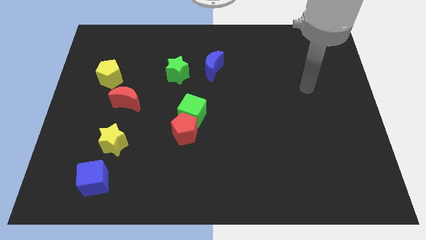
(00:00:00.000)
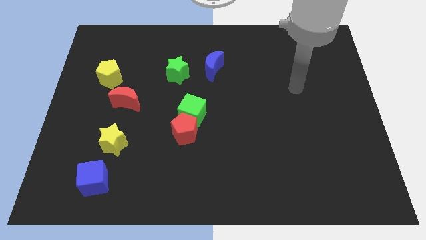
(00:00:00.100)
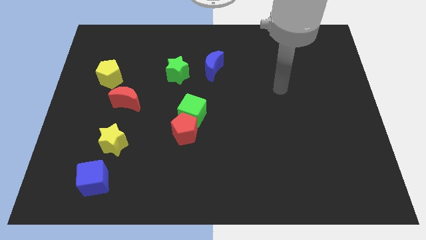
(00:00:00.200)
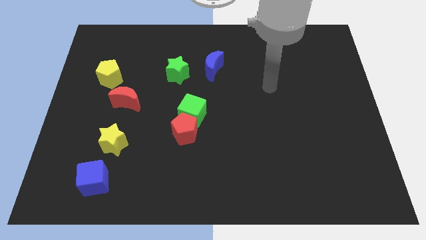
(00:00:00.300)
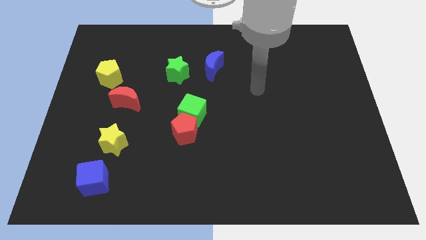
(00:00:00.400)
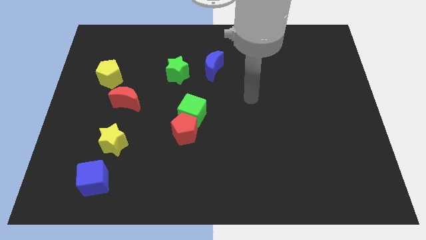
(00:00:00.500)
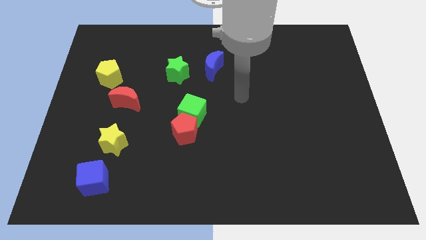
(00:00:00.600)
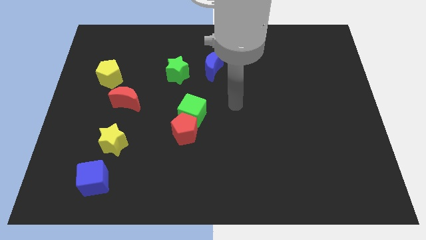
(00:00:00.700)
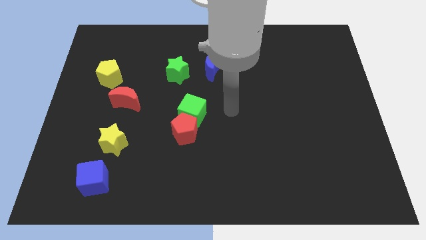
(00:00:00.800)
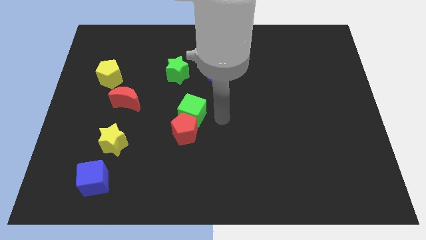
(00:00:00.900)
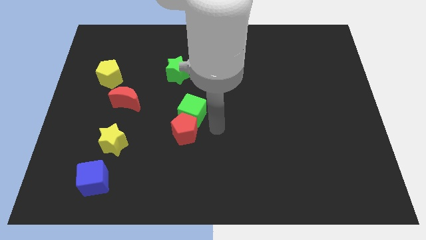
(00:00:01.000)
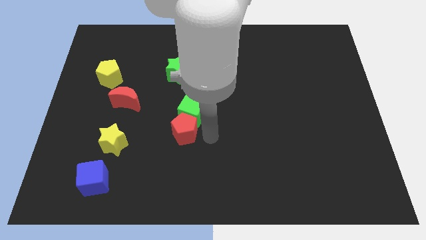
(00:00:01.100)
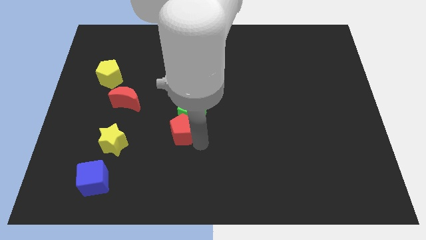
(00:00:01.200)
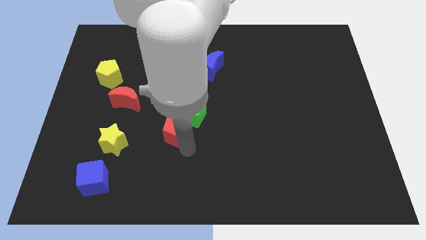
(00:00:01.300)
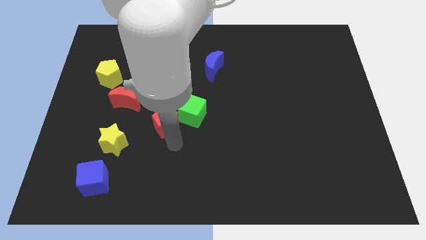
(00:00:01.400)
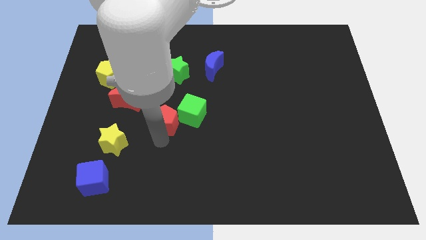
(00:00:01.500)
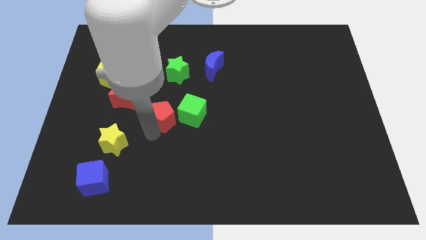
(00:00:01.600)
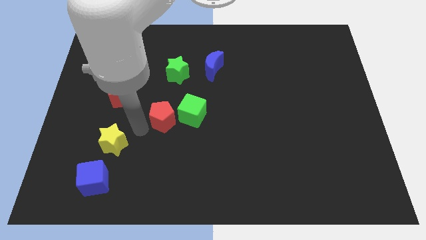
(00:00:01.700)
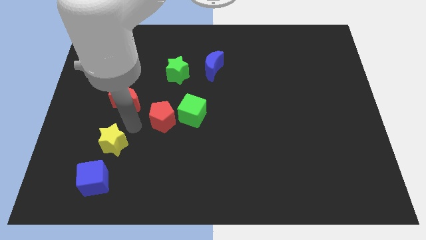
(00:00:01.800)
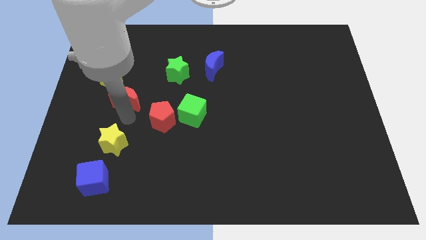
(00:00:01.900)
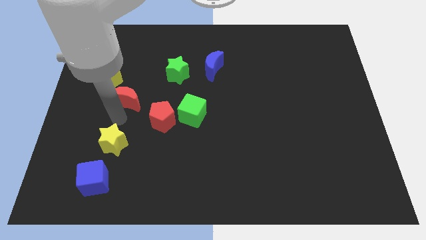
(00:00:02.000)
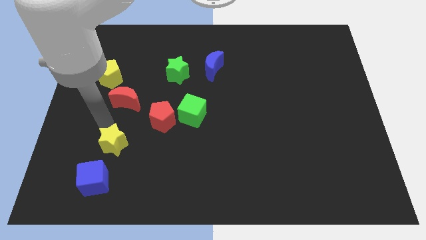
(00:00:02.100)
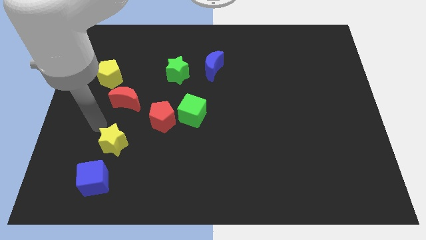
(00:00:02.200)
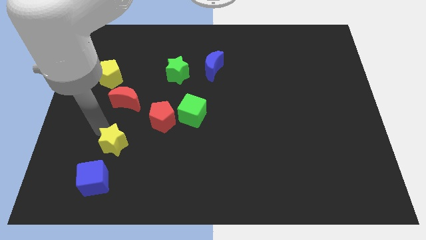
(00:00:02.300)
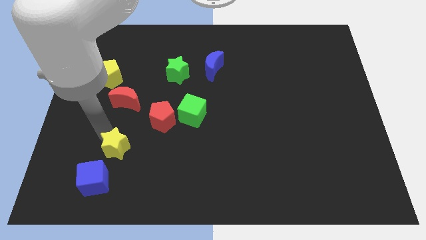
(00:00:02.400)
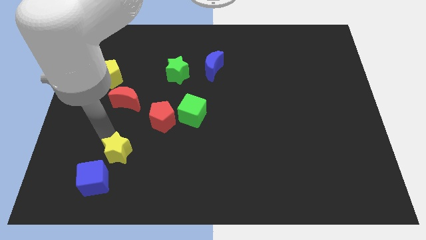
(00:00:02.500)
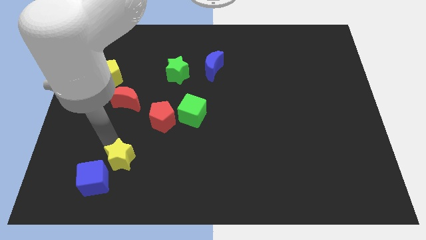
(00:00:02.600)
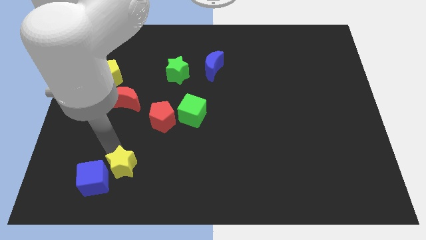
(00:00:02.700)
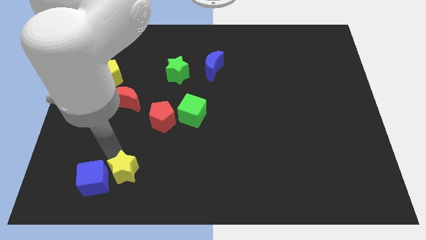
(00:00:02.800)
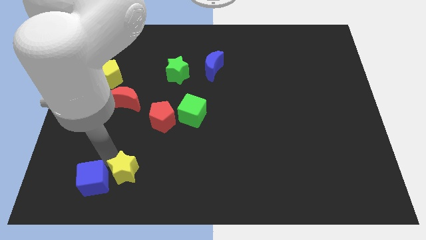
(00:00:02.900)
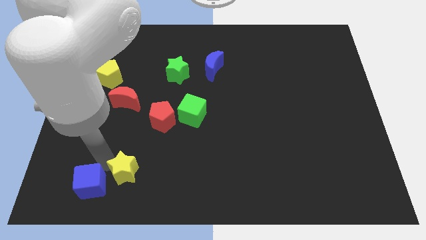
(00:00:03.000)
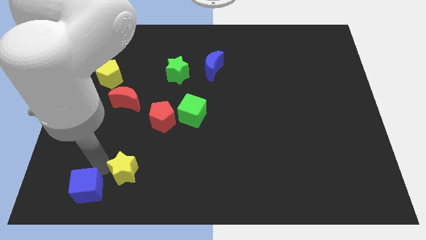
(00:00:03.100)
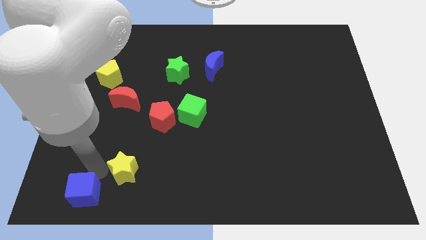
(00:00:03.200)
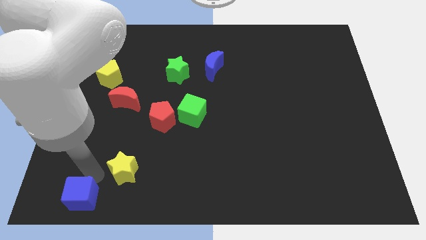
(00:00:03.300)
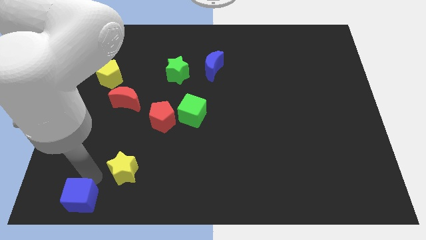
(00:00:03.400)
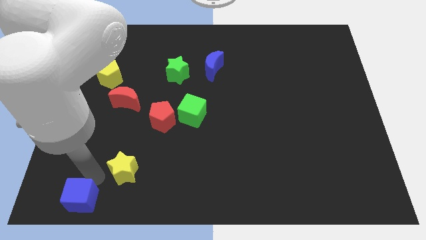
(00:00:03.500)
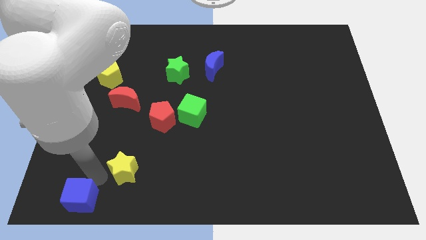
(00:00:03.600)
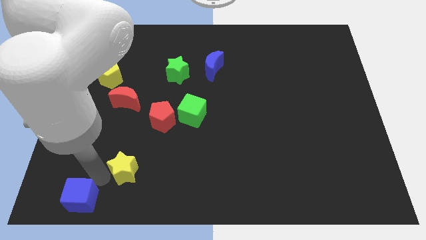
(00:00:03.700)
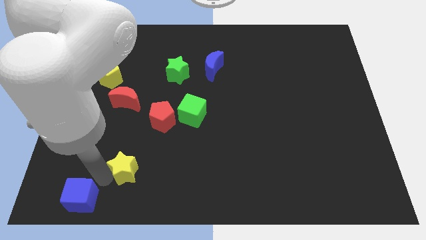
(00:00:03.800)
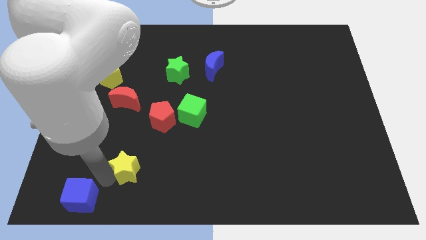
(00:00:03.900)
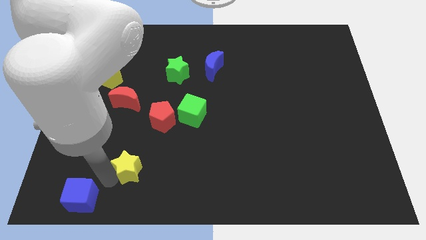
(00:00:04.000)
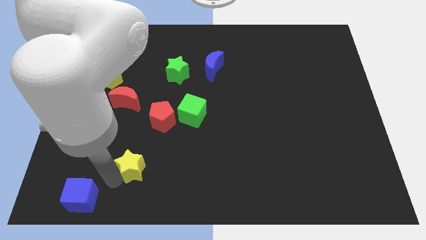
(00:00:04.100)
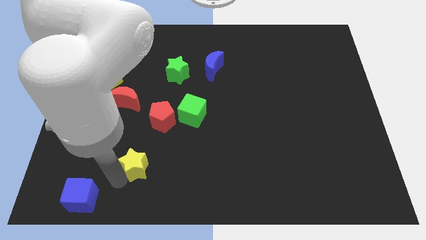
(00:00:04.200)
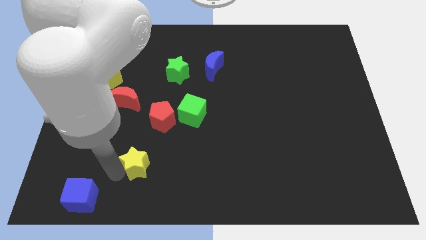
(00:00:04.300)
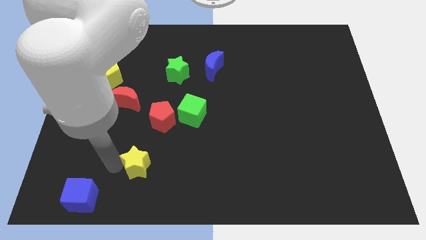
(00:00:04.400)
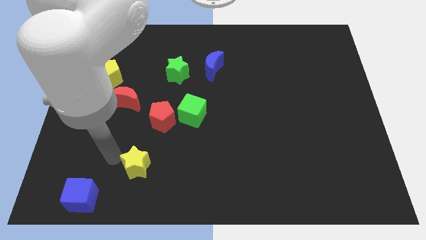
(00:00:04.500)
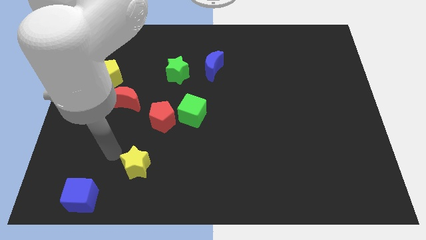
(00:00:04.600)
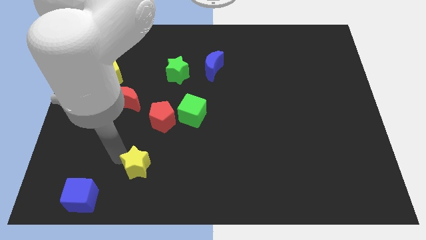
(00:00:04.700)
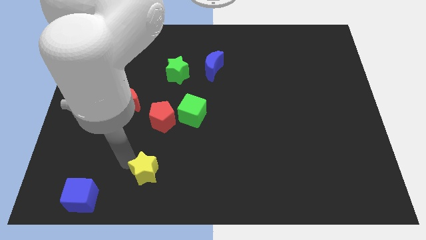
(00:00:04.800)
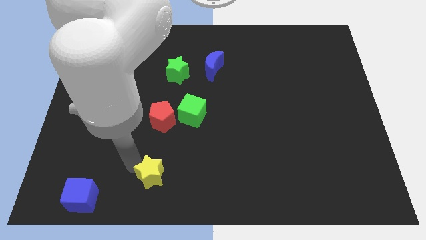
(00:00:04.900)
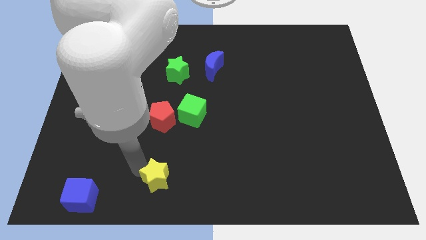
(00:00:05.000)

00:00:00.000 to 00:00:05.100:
put the yellow star to the bottom side

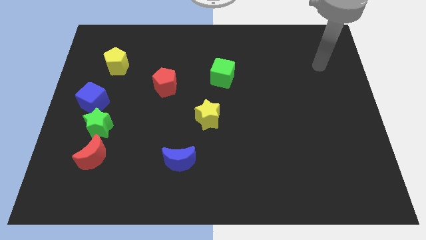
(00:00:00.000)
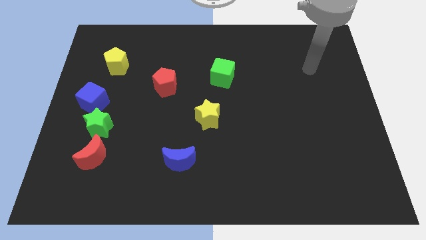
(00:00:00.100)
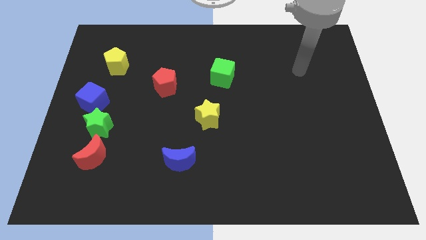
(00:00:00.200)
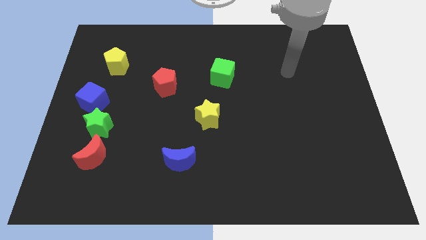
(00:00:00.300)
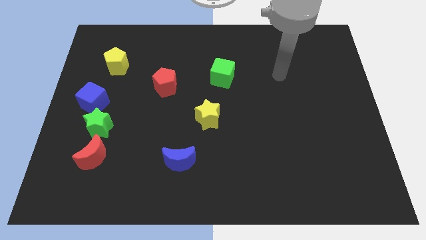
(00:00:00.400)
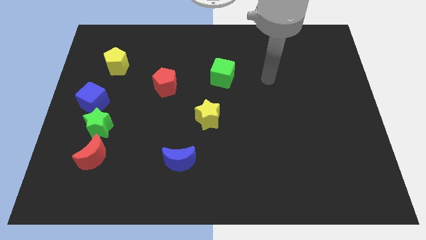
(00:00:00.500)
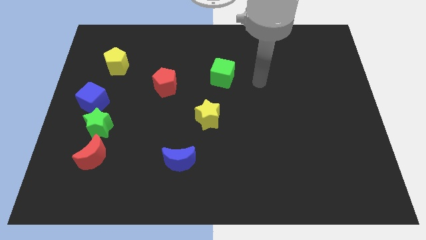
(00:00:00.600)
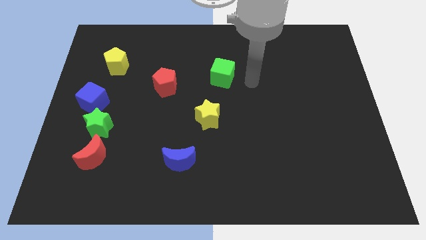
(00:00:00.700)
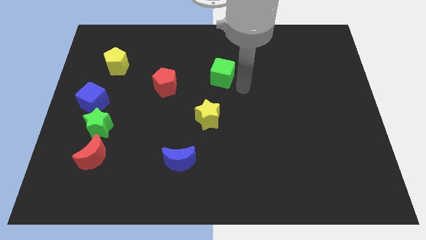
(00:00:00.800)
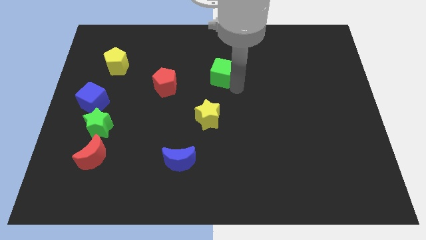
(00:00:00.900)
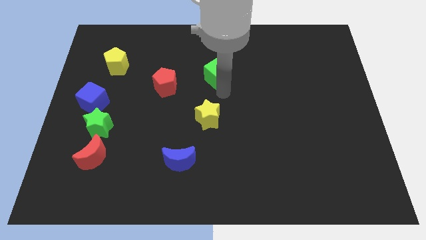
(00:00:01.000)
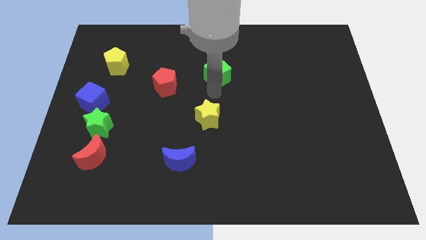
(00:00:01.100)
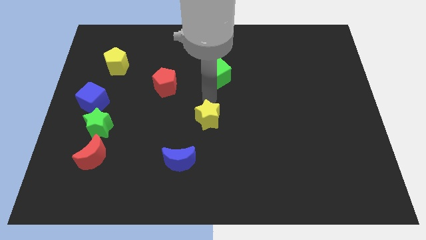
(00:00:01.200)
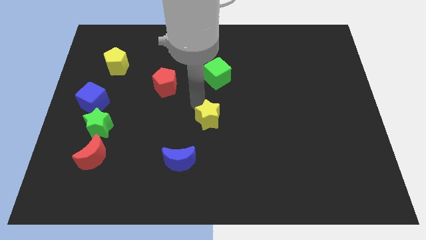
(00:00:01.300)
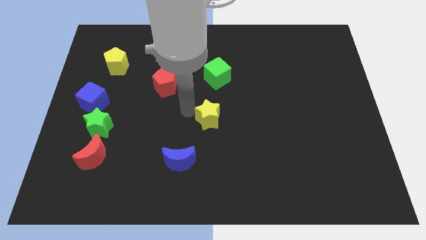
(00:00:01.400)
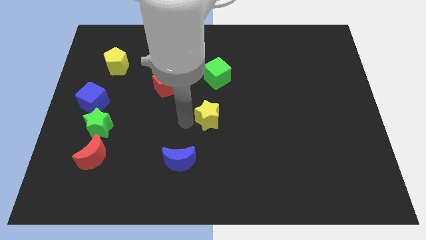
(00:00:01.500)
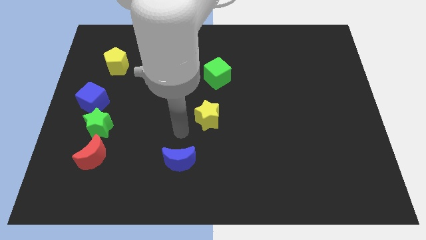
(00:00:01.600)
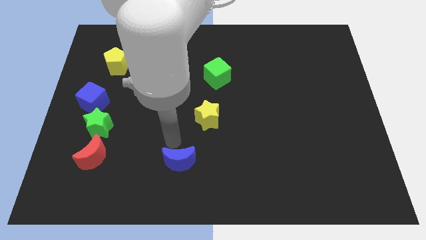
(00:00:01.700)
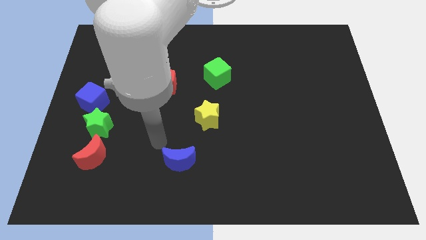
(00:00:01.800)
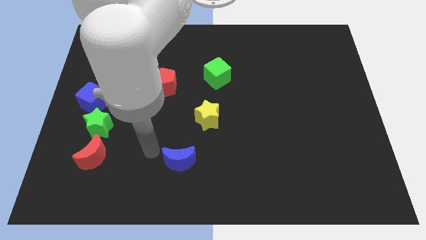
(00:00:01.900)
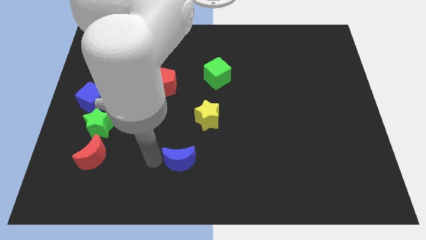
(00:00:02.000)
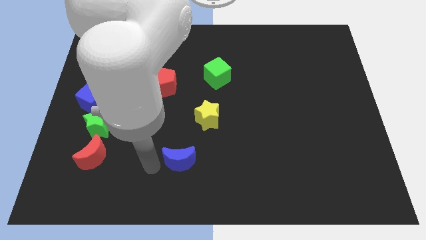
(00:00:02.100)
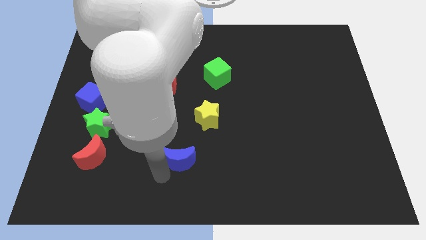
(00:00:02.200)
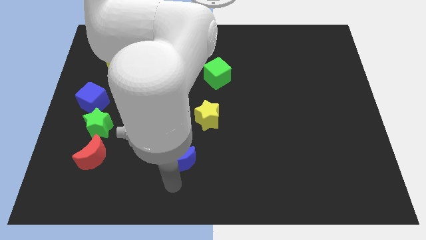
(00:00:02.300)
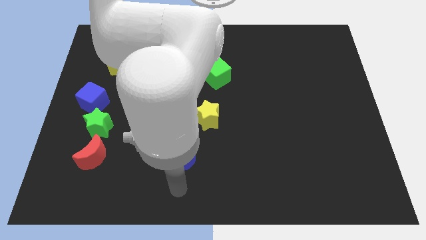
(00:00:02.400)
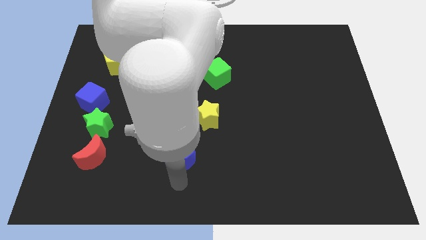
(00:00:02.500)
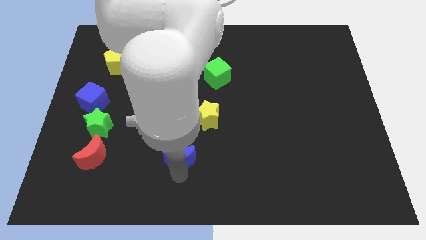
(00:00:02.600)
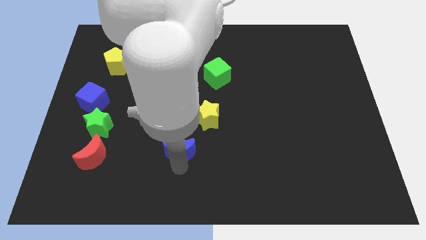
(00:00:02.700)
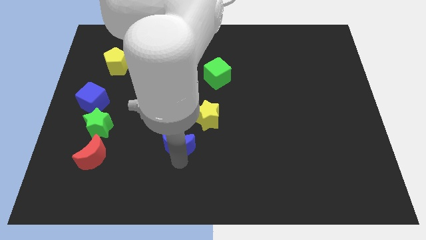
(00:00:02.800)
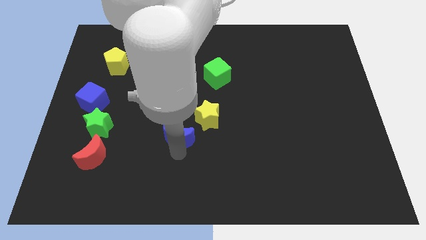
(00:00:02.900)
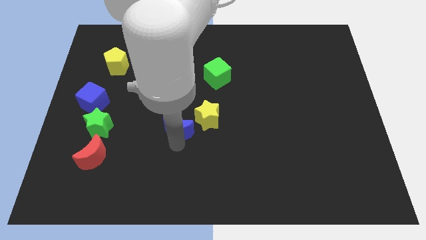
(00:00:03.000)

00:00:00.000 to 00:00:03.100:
push the blue moon to the middle
